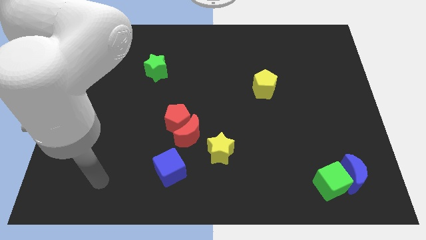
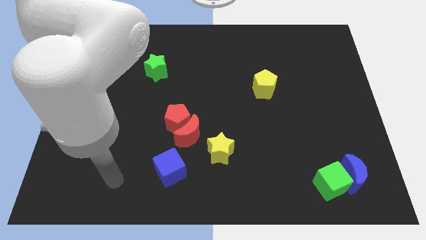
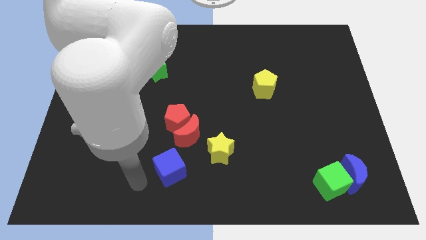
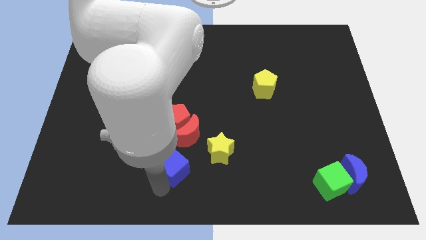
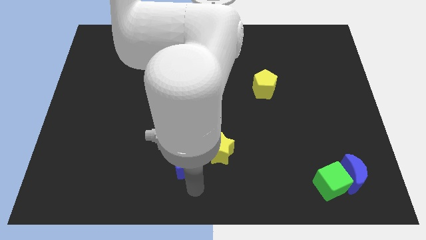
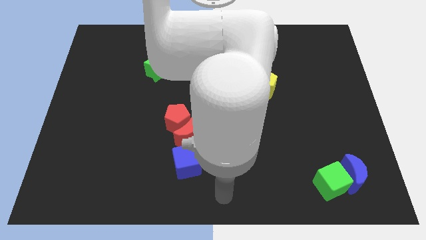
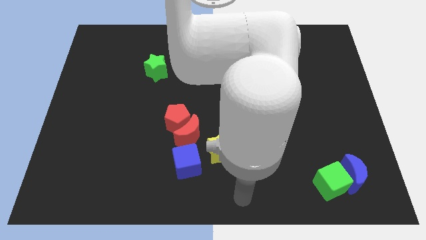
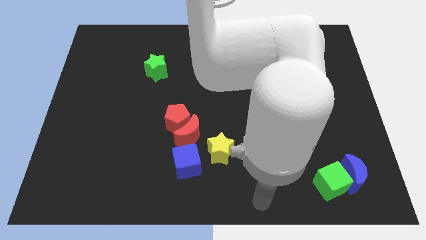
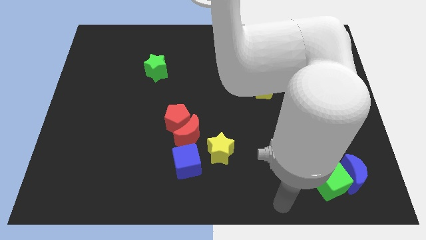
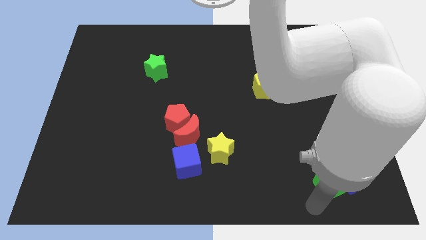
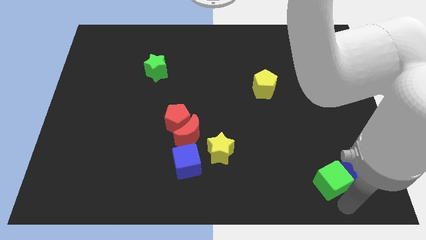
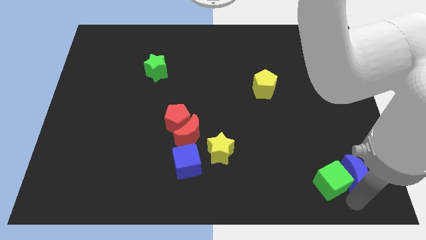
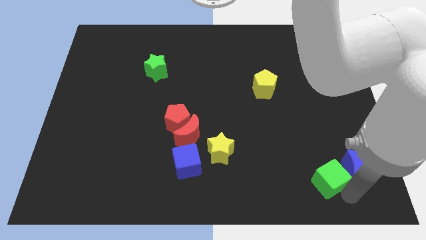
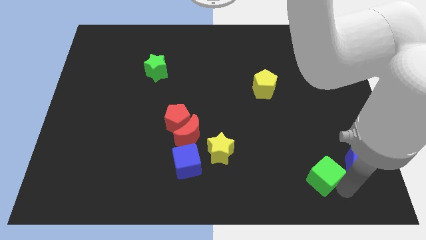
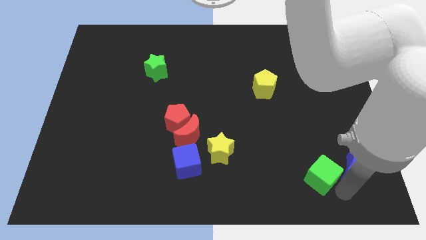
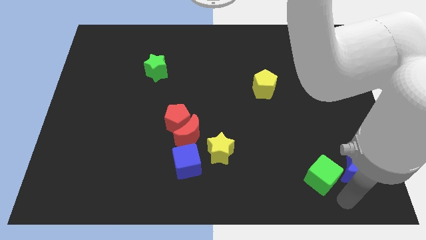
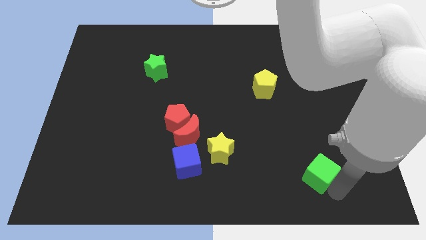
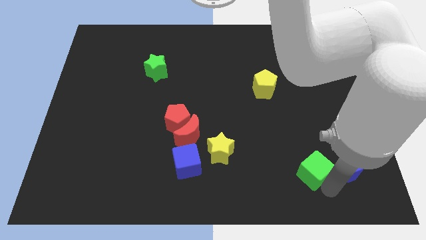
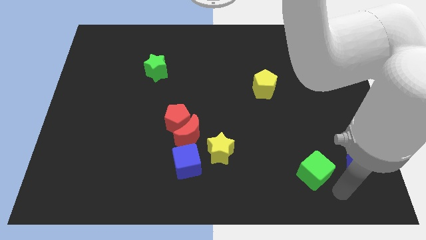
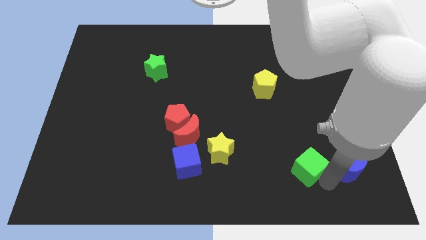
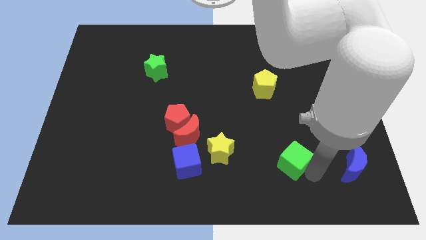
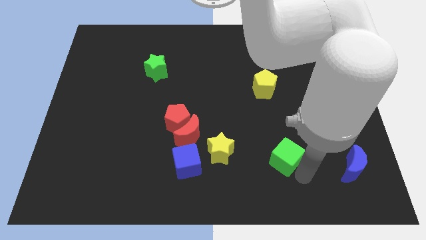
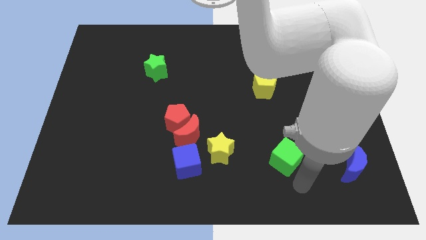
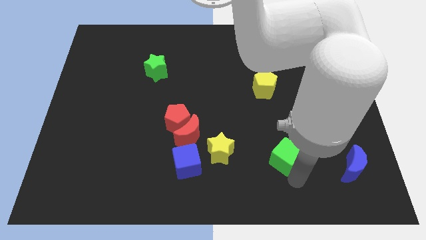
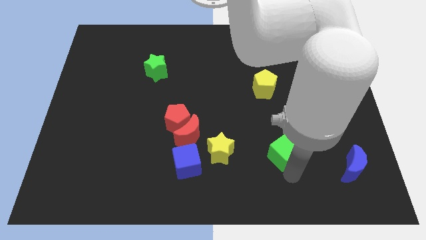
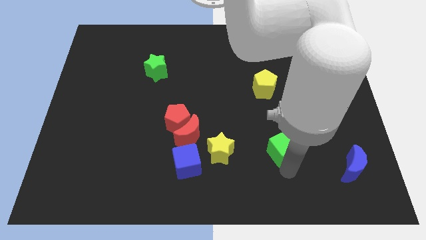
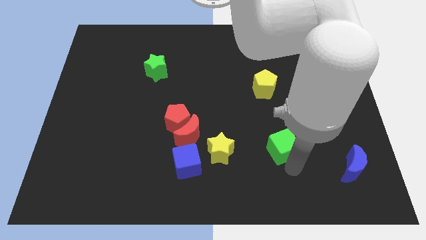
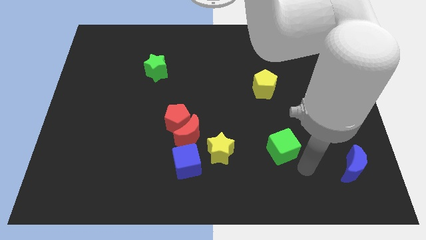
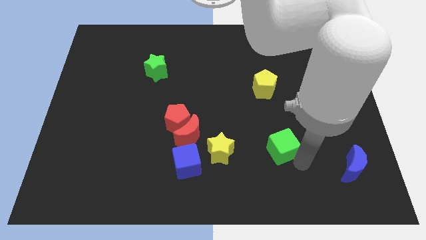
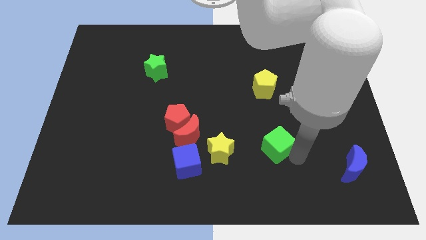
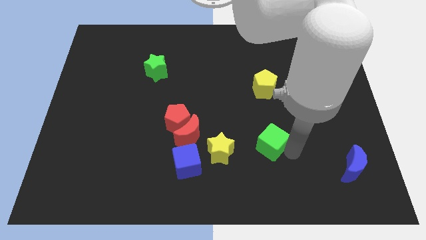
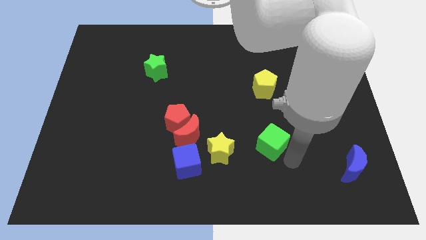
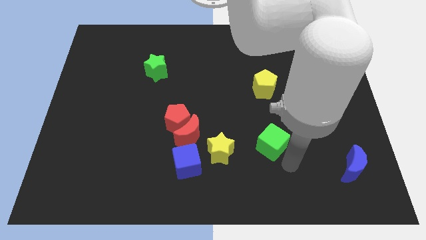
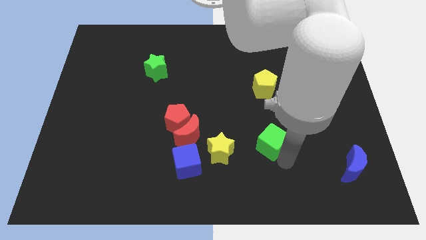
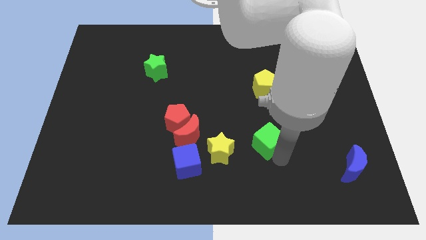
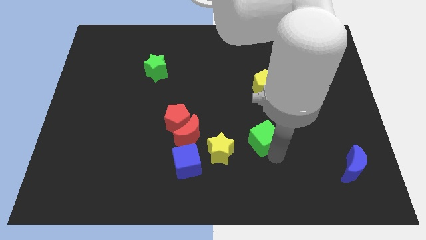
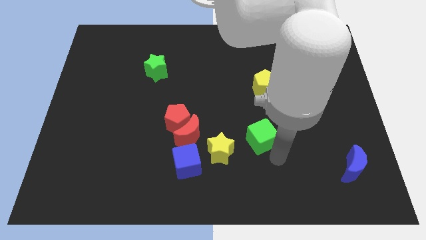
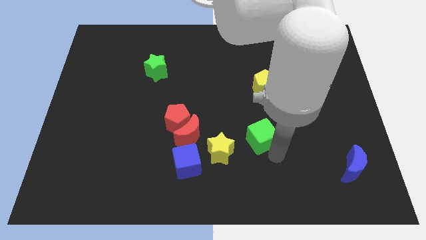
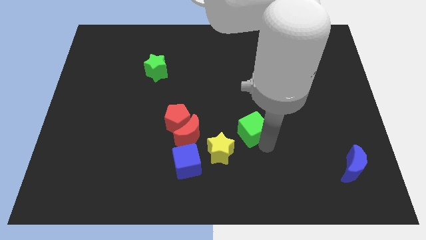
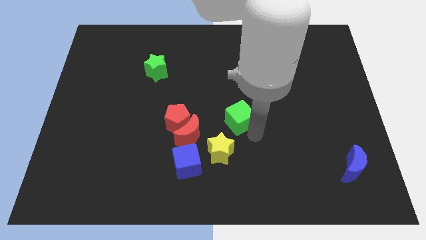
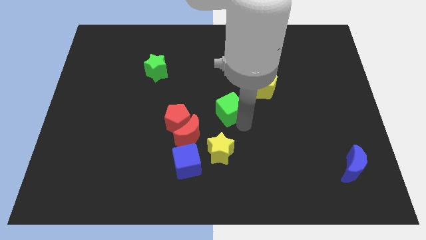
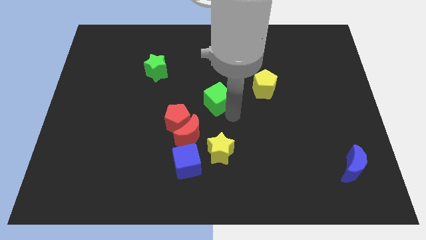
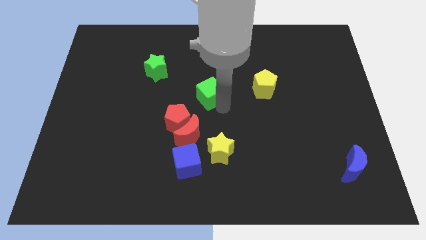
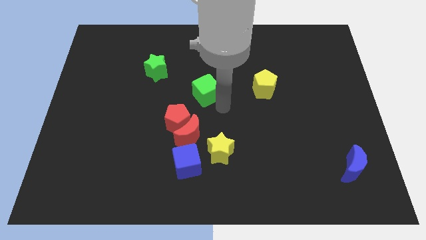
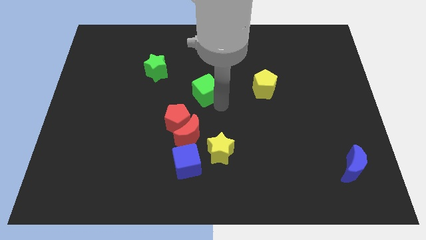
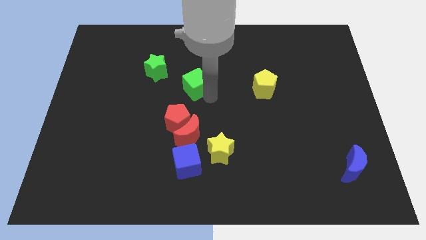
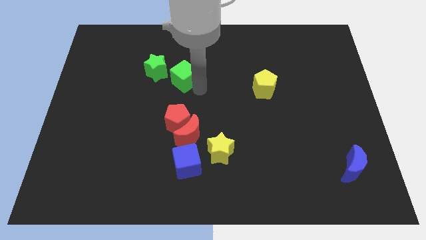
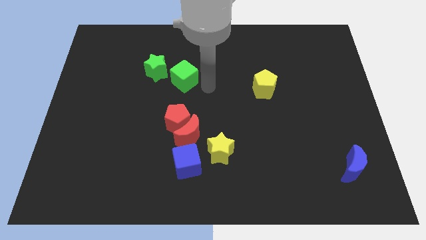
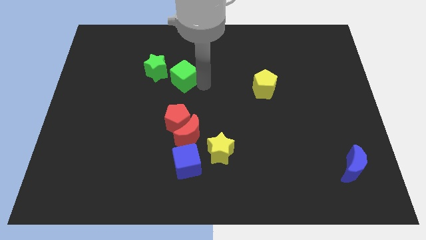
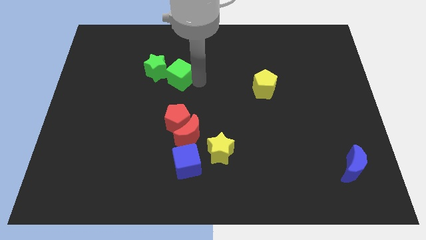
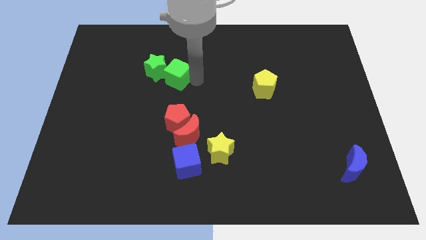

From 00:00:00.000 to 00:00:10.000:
put the green cube to the green star

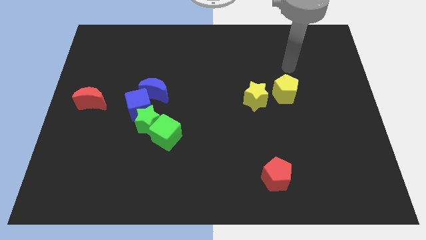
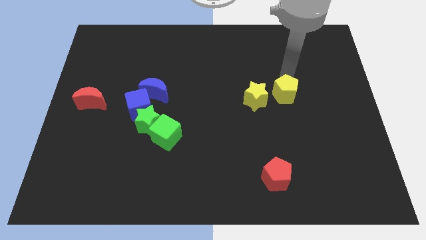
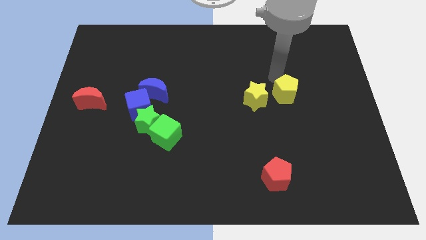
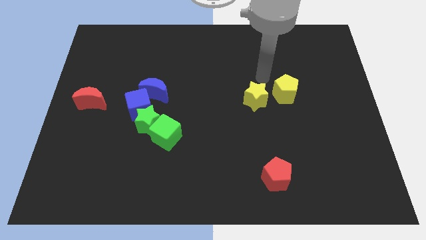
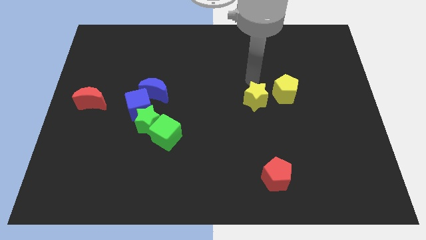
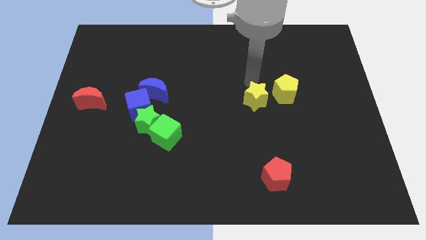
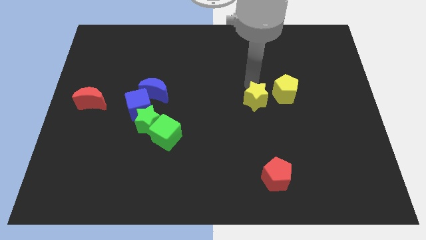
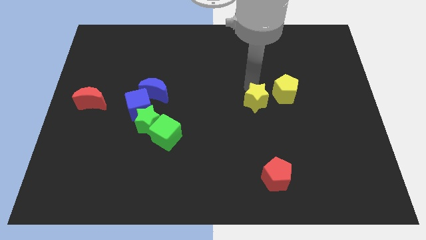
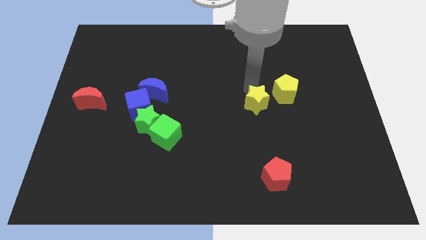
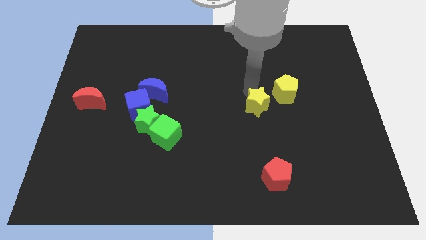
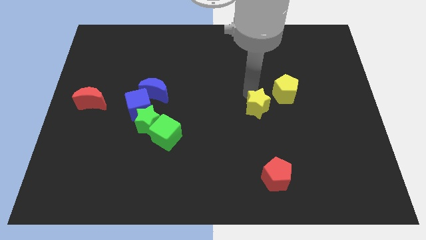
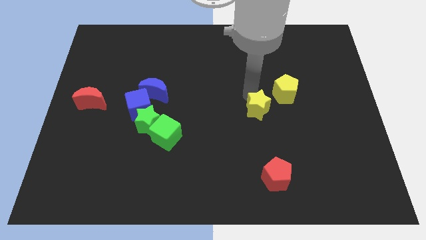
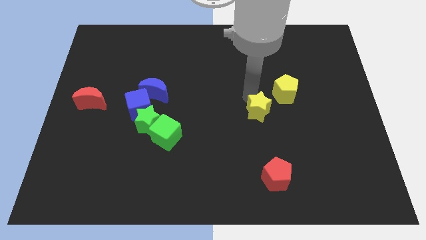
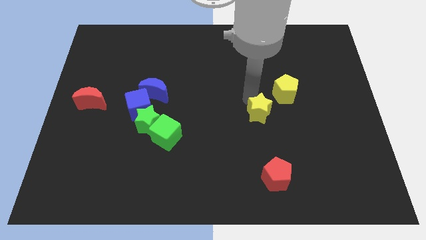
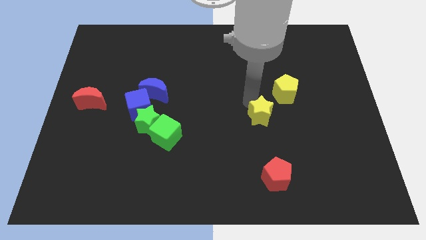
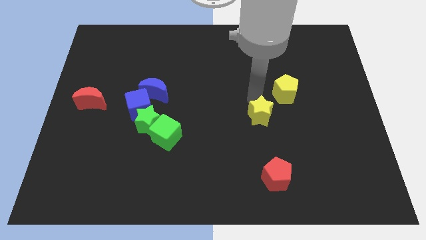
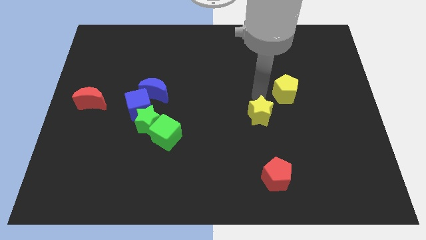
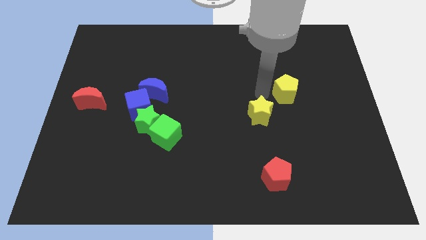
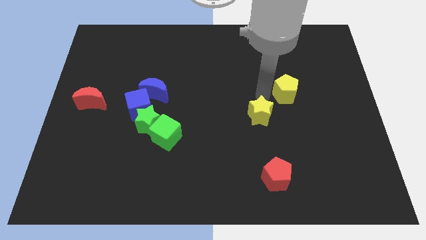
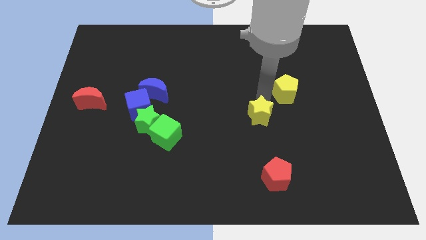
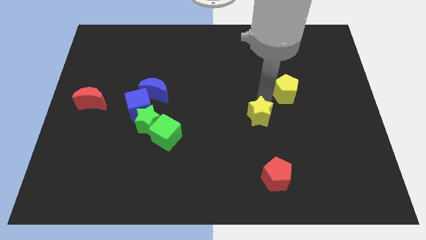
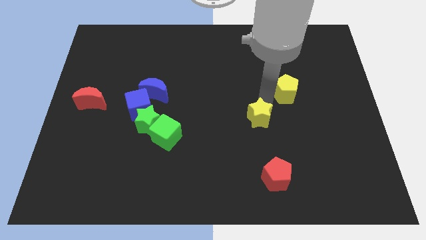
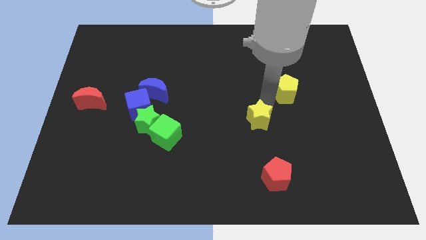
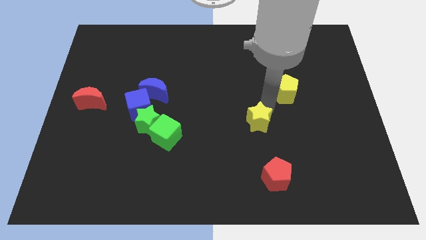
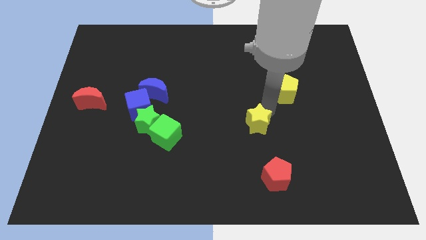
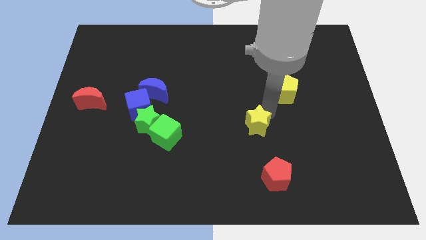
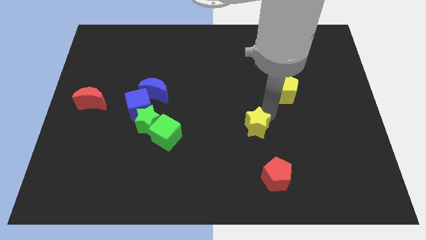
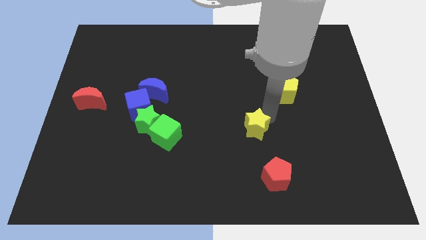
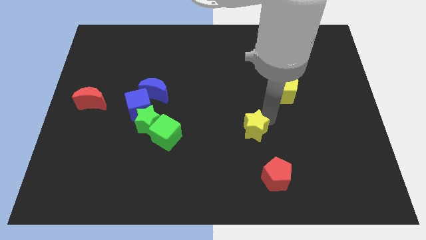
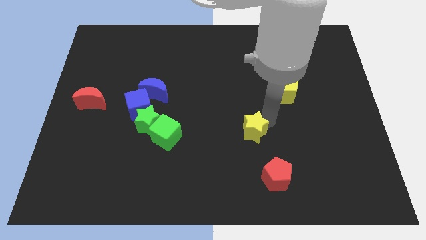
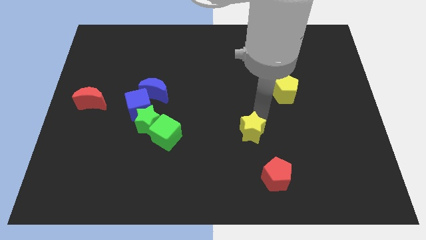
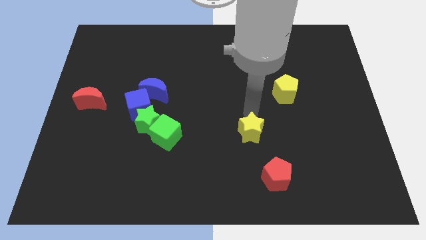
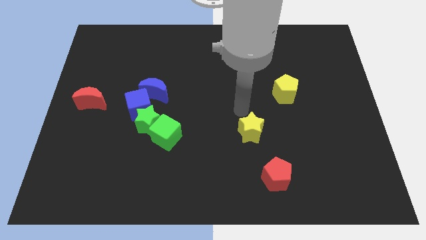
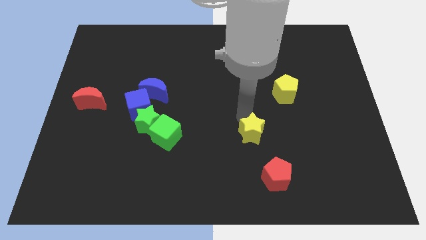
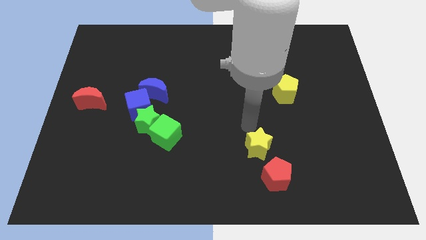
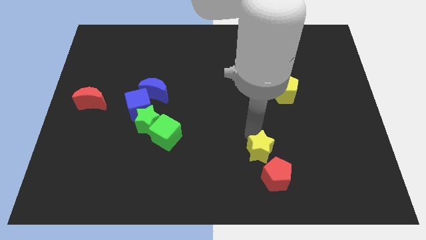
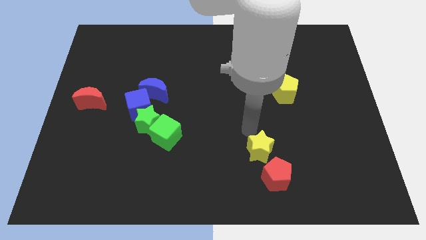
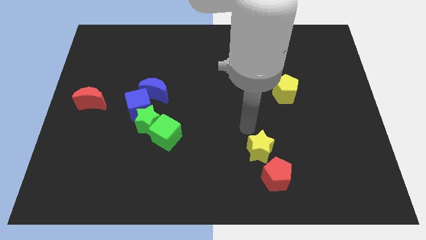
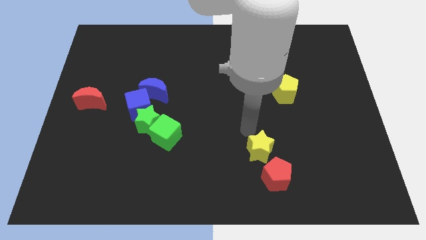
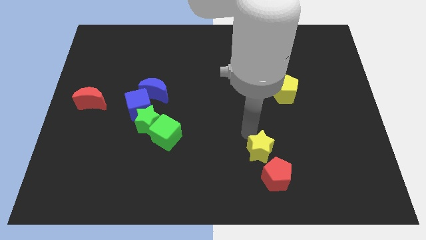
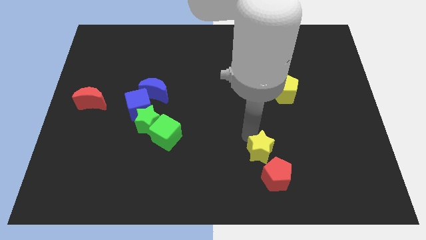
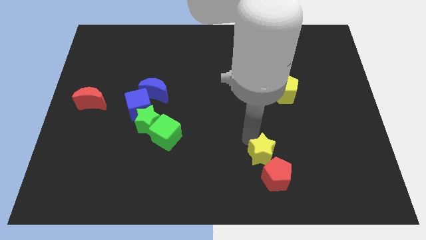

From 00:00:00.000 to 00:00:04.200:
slide the yellow star next to the red pentagon
